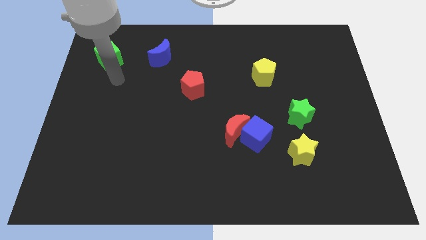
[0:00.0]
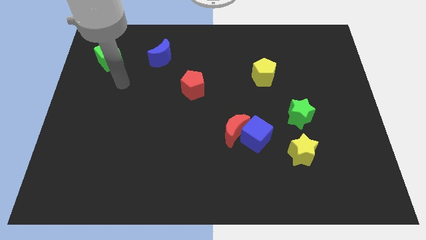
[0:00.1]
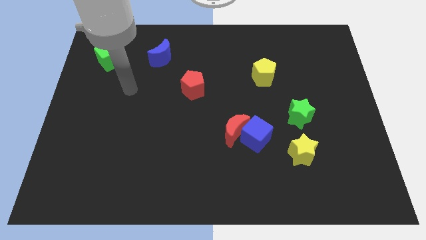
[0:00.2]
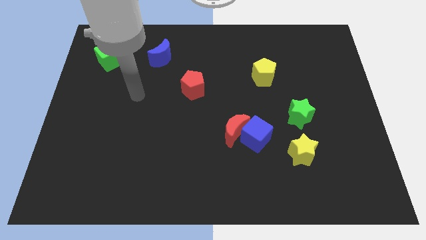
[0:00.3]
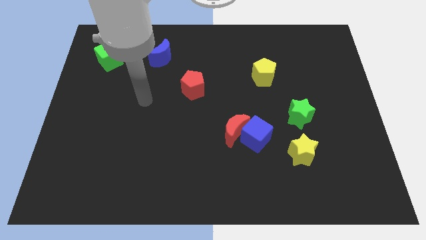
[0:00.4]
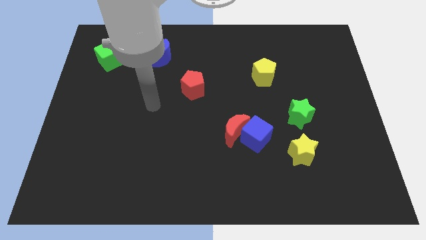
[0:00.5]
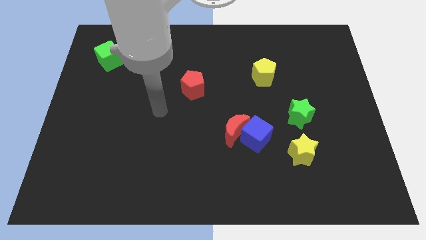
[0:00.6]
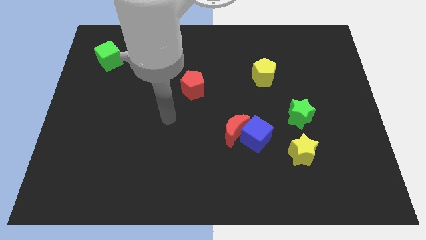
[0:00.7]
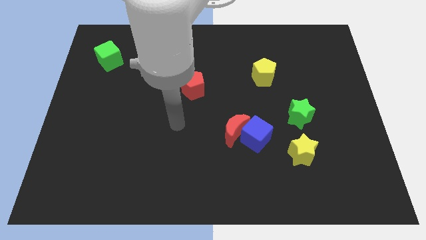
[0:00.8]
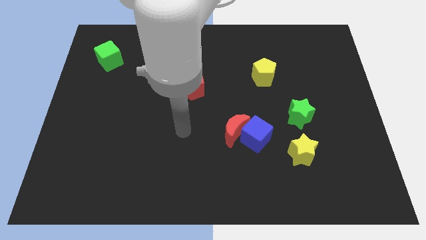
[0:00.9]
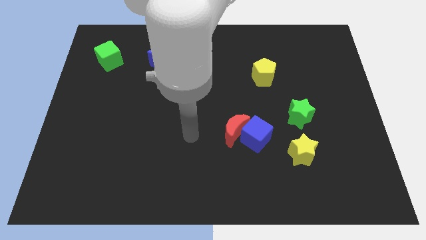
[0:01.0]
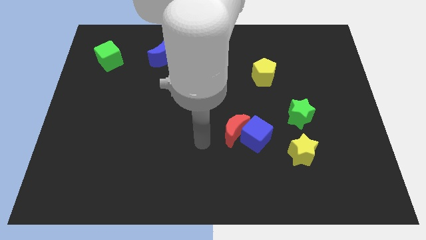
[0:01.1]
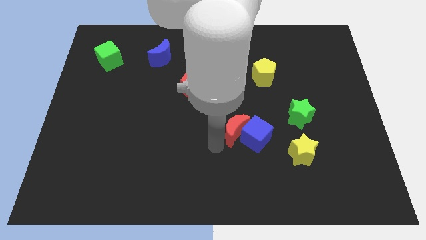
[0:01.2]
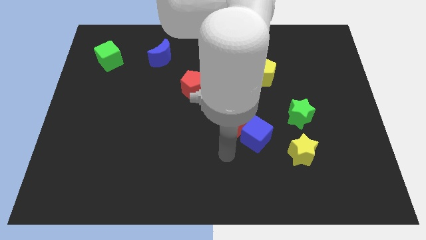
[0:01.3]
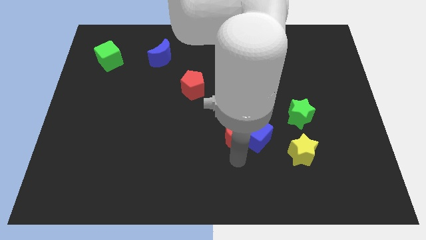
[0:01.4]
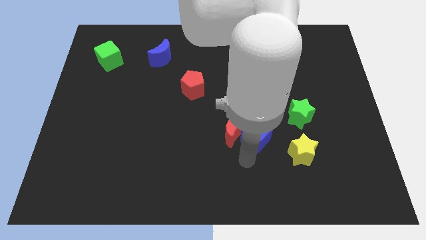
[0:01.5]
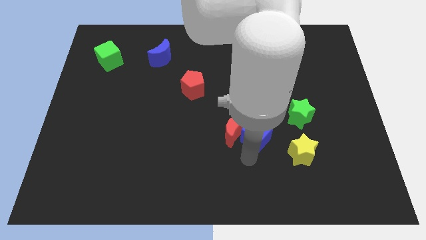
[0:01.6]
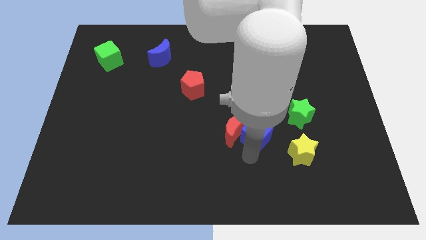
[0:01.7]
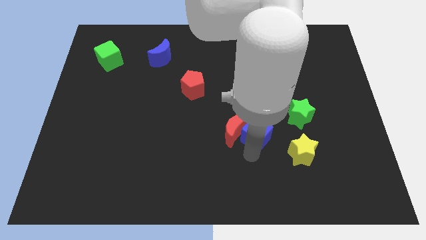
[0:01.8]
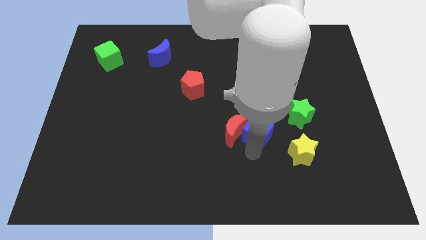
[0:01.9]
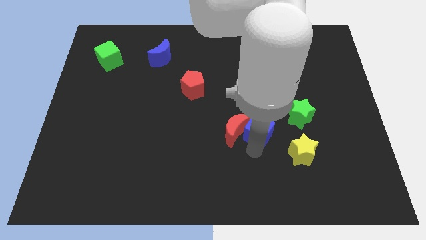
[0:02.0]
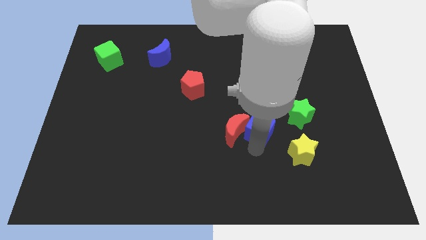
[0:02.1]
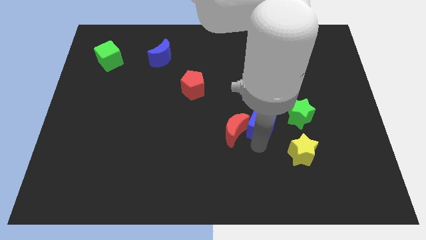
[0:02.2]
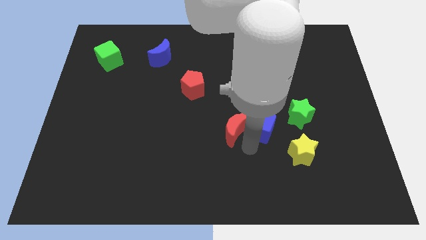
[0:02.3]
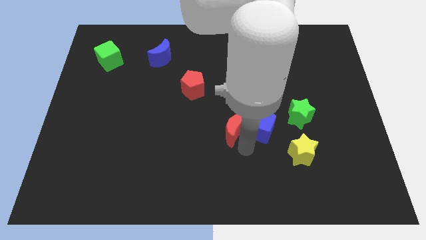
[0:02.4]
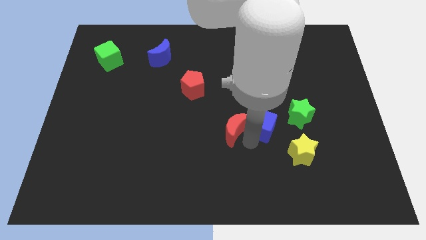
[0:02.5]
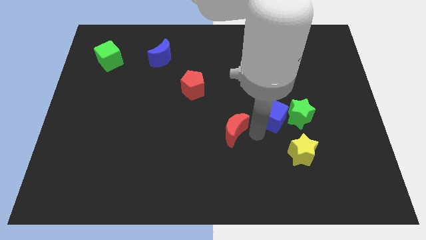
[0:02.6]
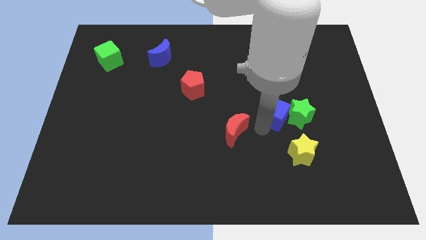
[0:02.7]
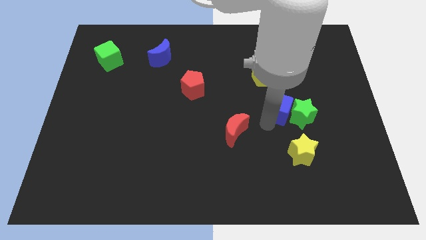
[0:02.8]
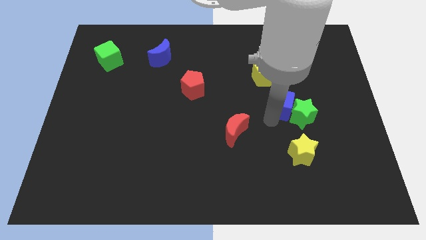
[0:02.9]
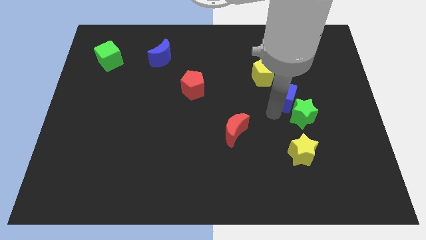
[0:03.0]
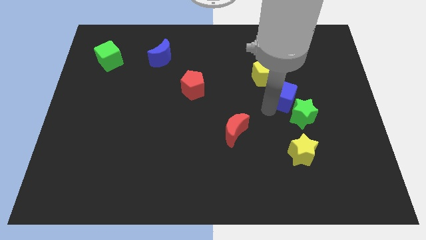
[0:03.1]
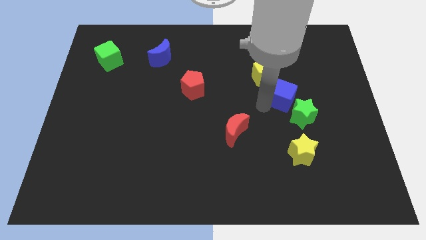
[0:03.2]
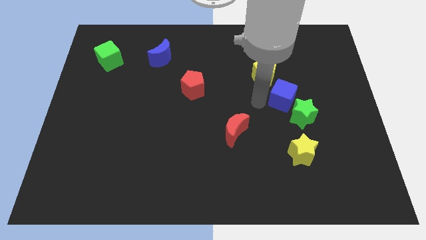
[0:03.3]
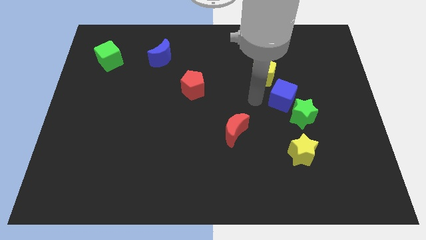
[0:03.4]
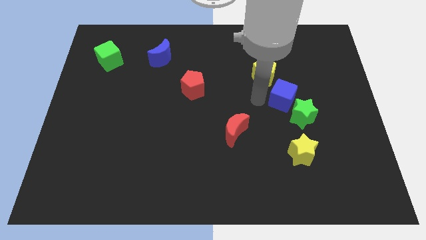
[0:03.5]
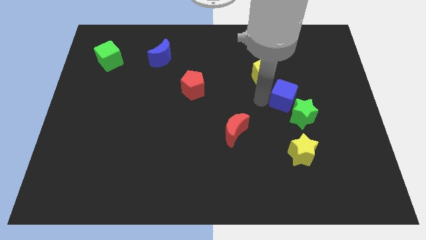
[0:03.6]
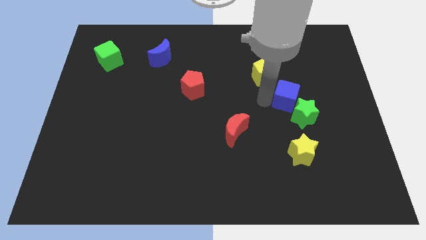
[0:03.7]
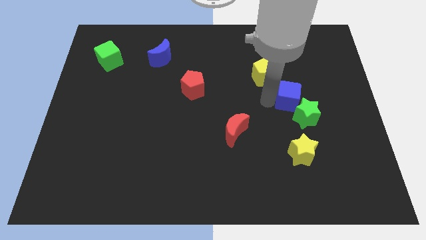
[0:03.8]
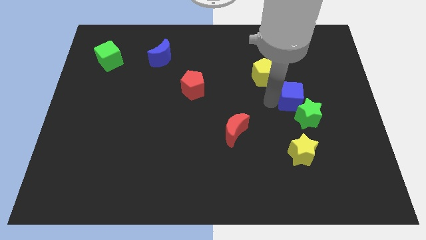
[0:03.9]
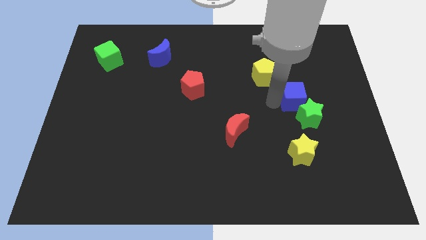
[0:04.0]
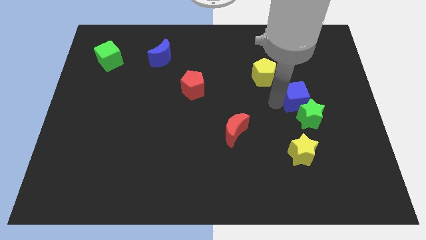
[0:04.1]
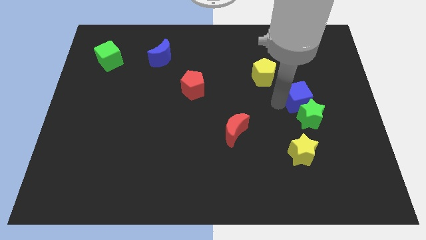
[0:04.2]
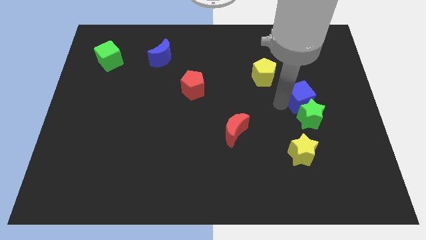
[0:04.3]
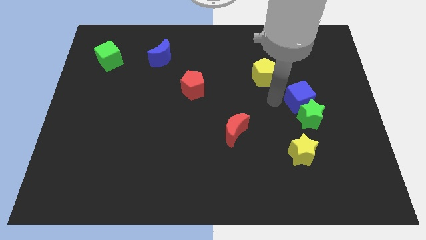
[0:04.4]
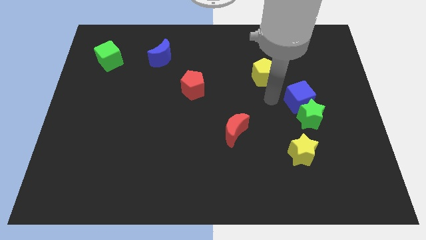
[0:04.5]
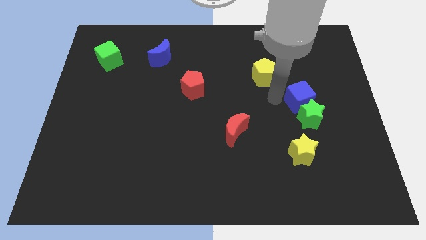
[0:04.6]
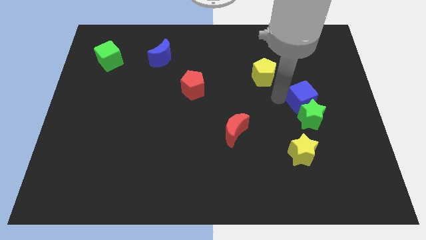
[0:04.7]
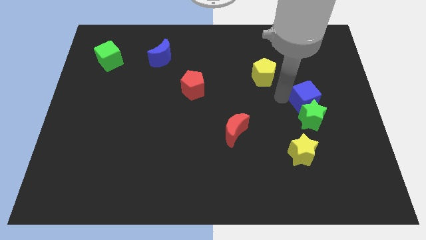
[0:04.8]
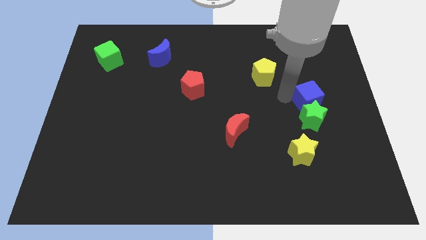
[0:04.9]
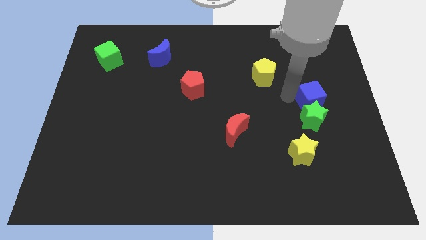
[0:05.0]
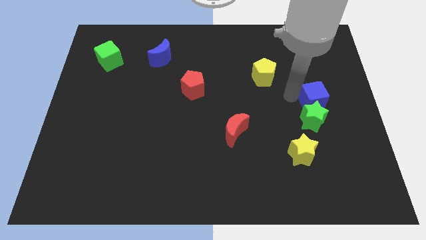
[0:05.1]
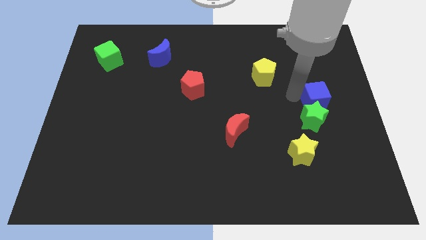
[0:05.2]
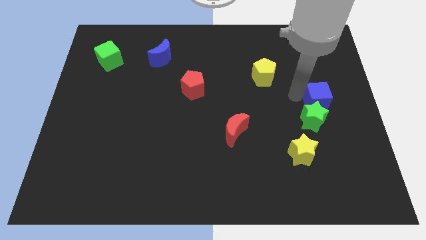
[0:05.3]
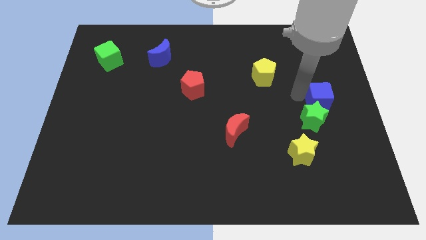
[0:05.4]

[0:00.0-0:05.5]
move the blue cube to the right side of the board

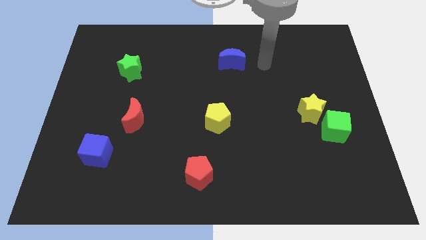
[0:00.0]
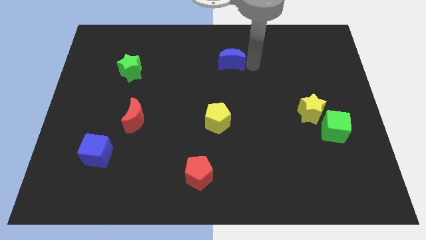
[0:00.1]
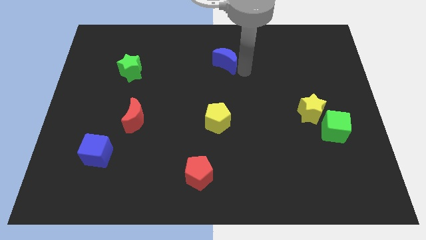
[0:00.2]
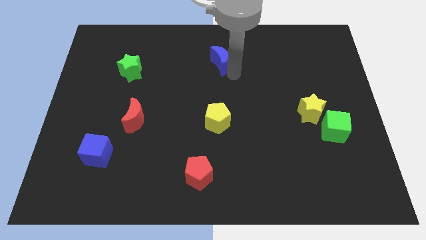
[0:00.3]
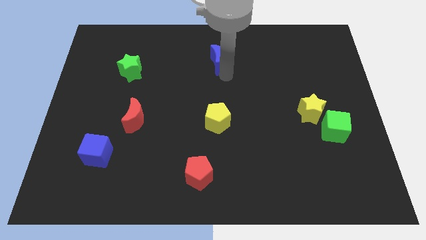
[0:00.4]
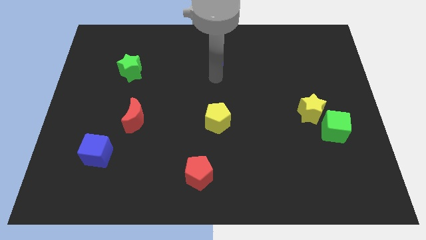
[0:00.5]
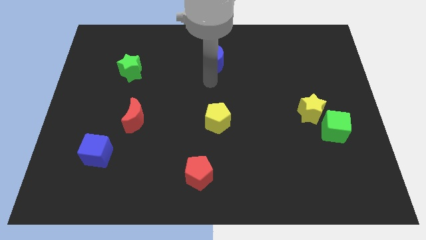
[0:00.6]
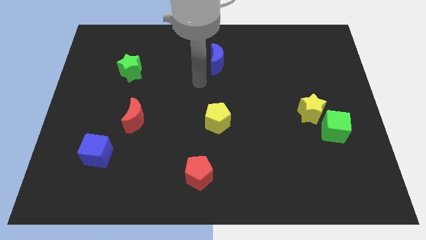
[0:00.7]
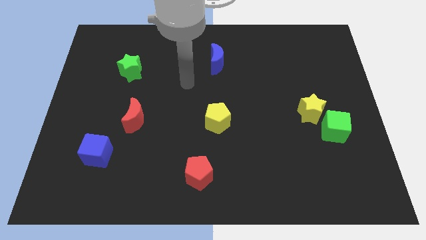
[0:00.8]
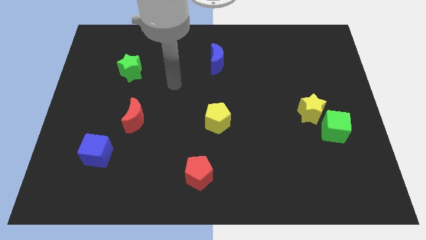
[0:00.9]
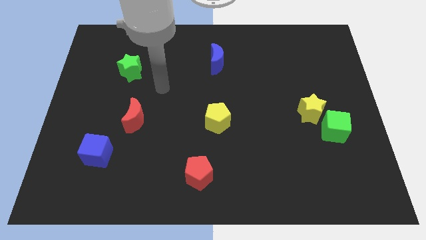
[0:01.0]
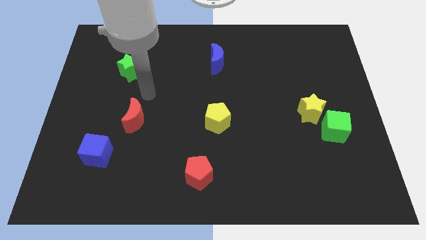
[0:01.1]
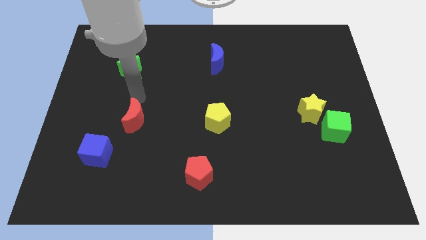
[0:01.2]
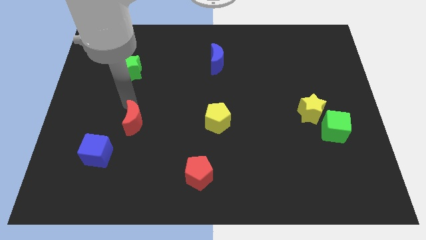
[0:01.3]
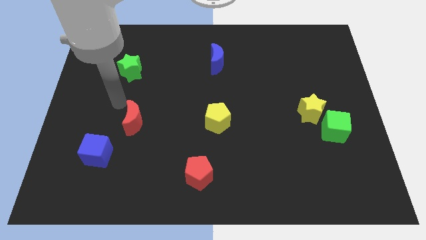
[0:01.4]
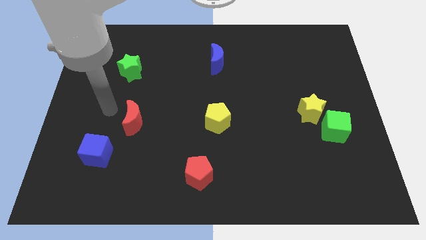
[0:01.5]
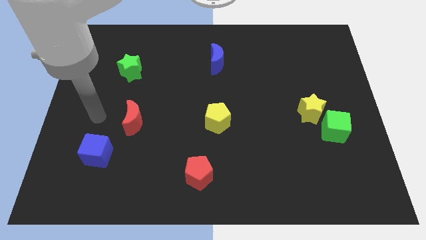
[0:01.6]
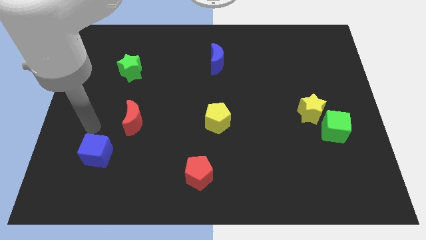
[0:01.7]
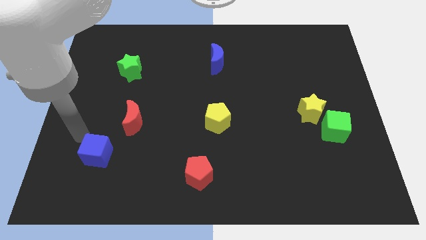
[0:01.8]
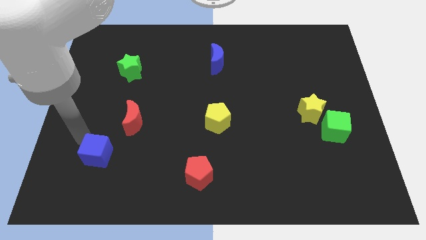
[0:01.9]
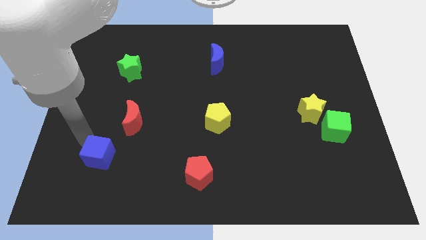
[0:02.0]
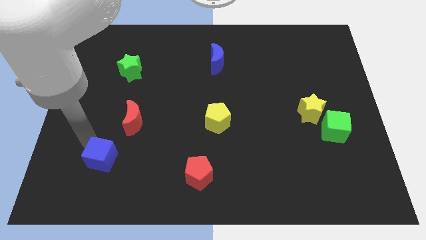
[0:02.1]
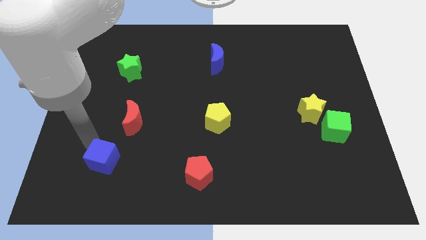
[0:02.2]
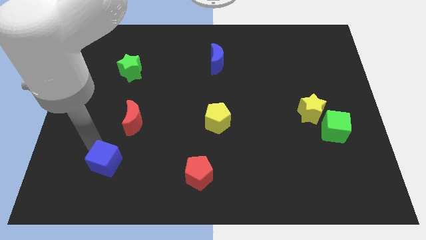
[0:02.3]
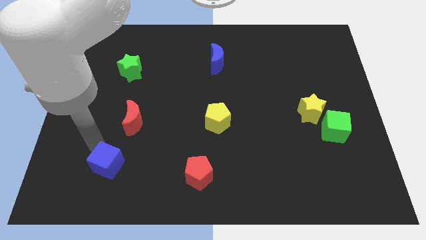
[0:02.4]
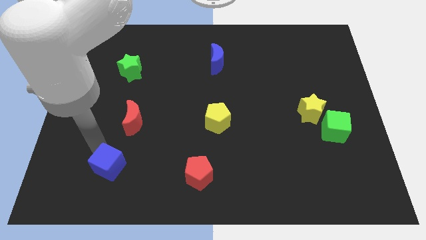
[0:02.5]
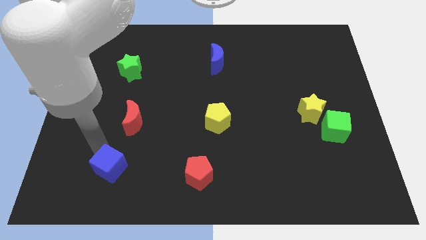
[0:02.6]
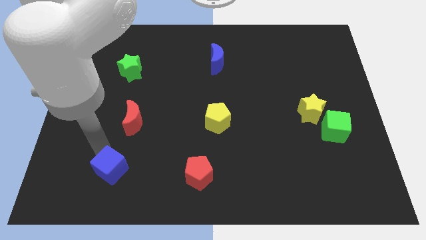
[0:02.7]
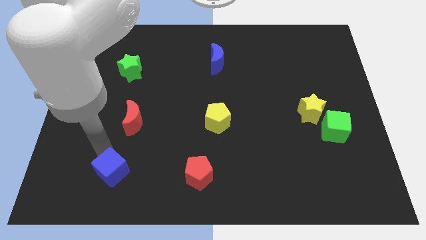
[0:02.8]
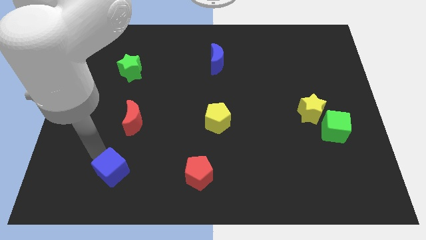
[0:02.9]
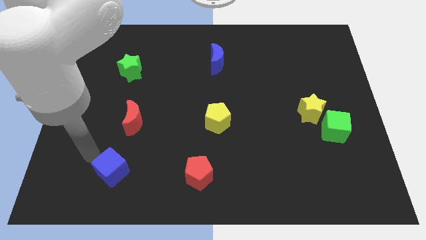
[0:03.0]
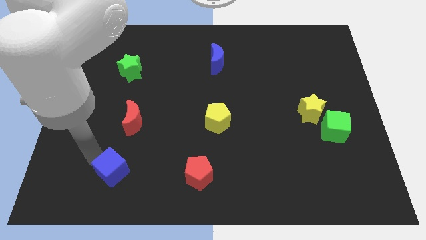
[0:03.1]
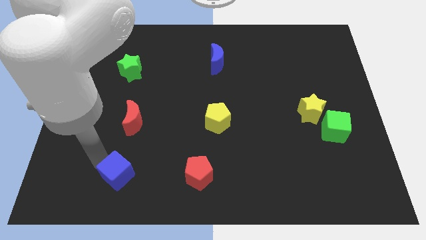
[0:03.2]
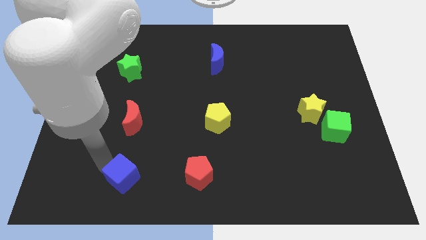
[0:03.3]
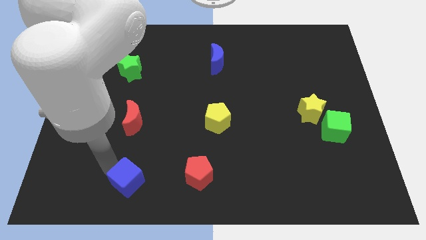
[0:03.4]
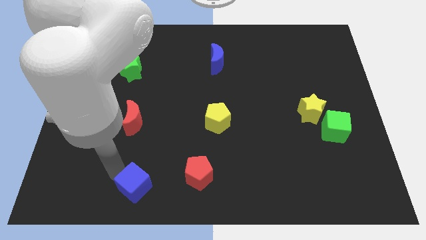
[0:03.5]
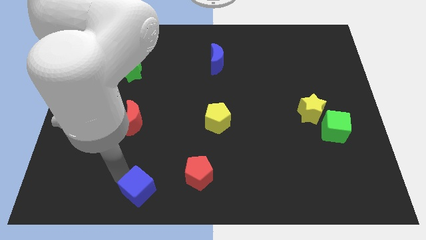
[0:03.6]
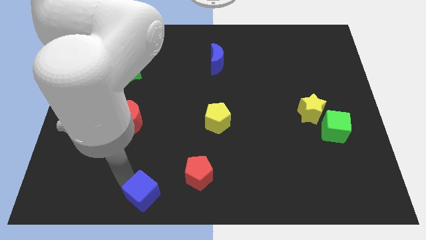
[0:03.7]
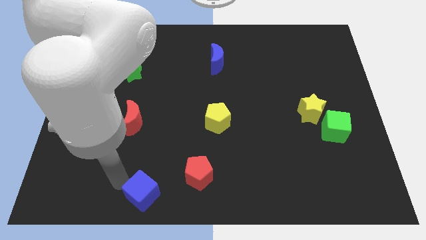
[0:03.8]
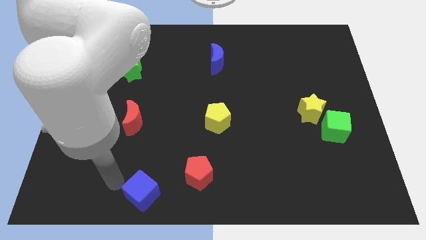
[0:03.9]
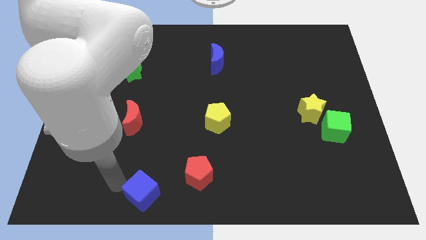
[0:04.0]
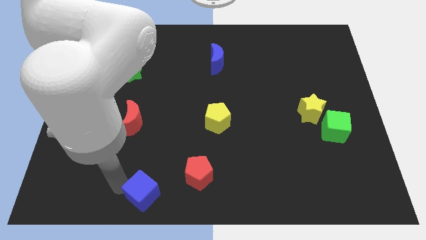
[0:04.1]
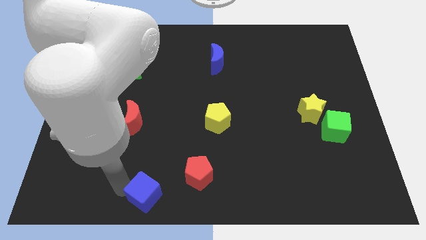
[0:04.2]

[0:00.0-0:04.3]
slide the blue cube to the bottom side
